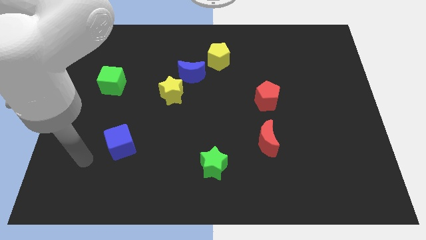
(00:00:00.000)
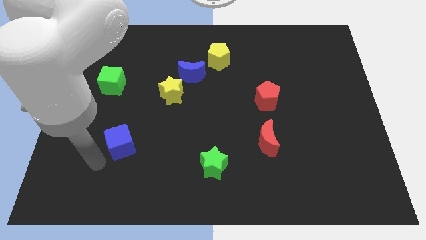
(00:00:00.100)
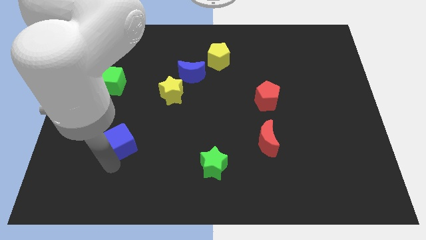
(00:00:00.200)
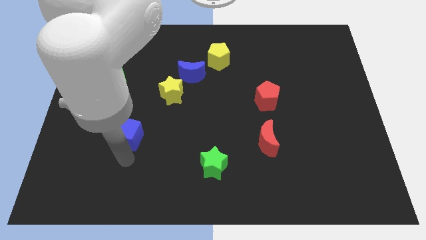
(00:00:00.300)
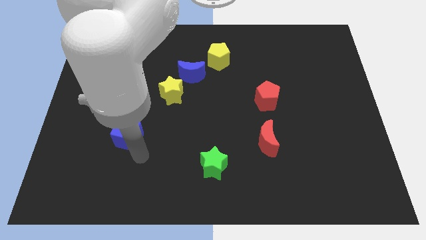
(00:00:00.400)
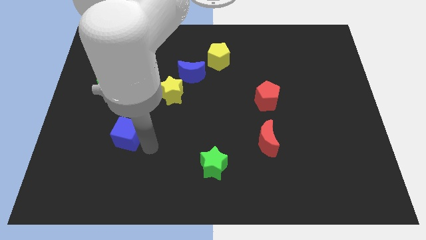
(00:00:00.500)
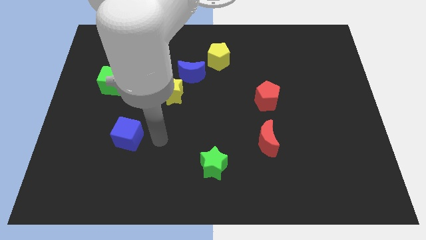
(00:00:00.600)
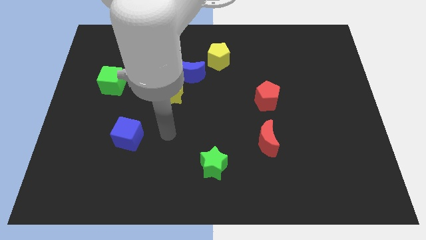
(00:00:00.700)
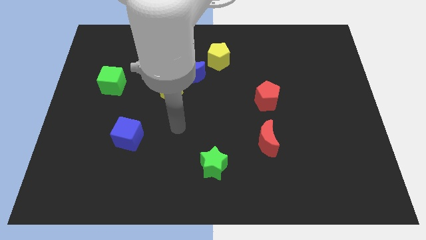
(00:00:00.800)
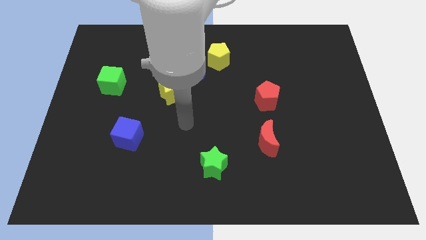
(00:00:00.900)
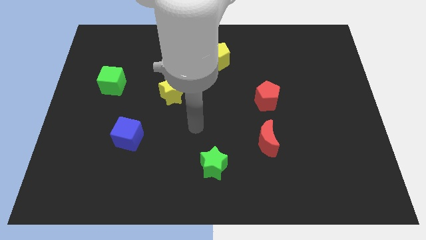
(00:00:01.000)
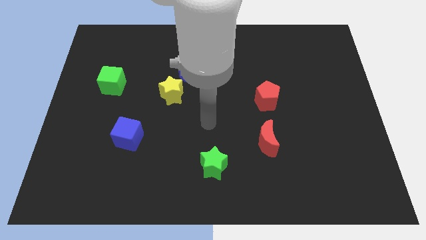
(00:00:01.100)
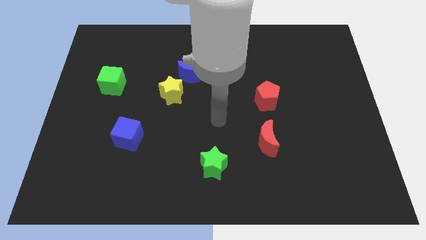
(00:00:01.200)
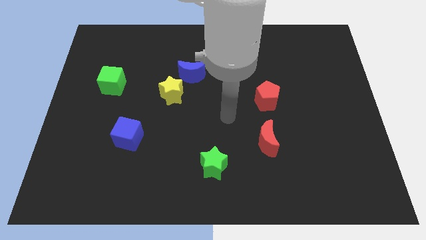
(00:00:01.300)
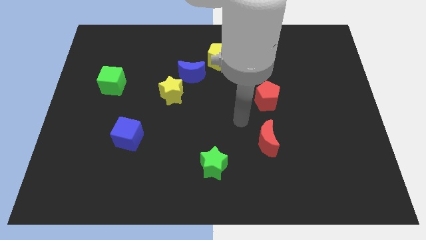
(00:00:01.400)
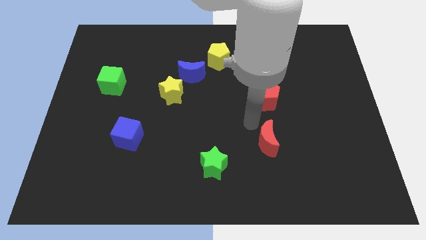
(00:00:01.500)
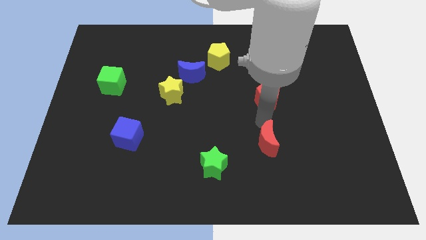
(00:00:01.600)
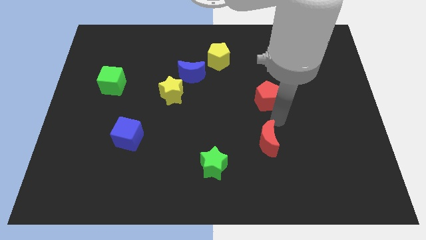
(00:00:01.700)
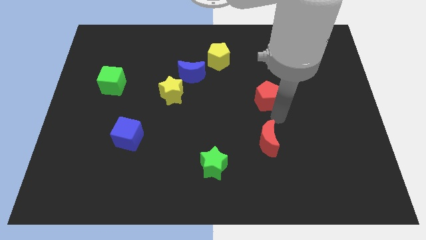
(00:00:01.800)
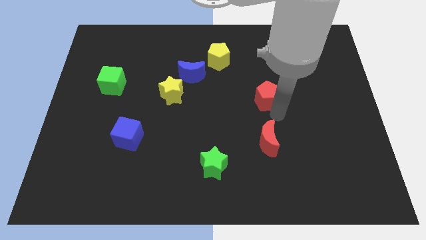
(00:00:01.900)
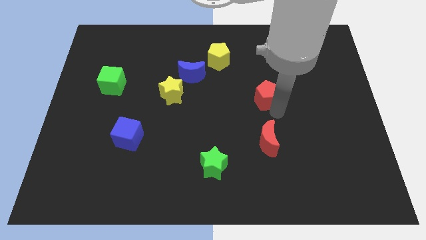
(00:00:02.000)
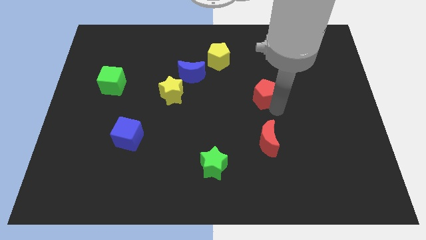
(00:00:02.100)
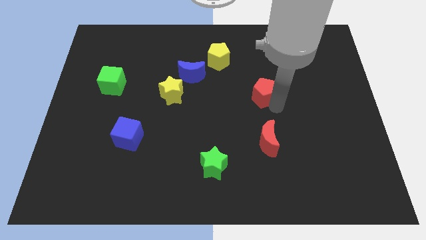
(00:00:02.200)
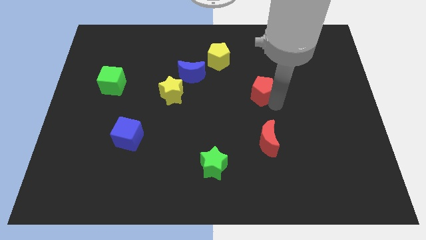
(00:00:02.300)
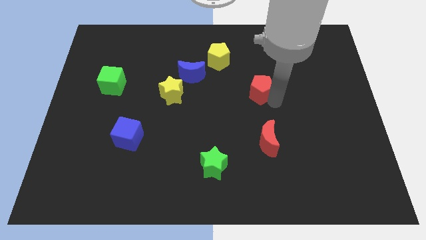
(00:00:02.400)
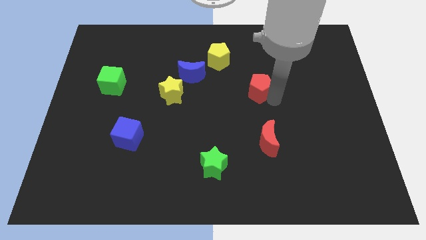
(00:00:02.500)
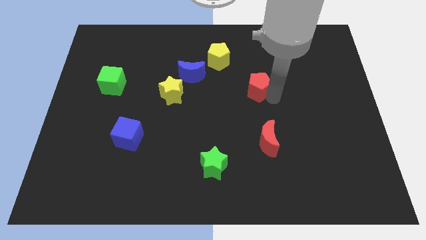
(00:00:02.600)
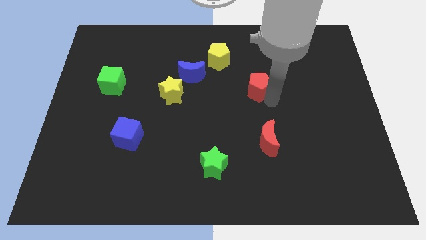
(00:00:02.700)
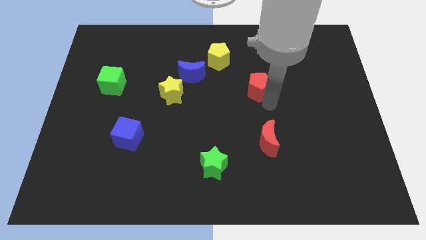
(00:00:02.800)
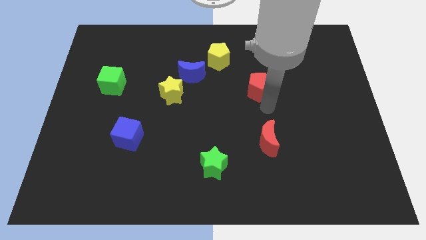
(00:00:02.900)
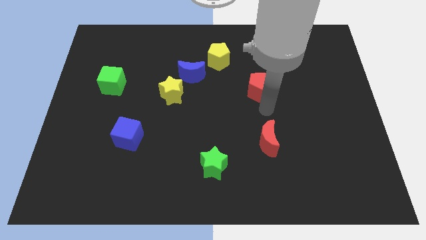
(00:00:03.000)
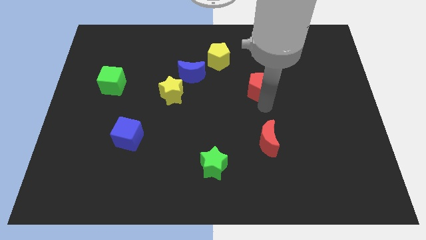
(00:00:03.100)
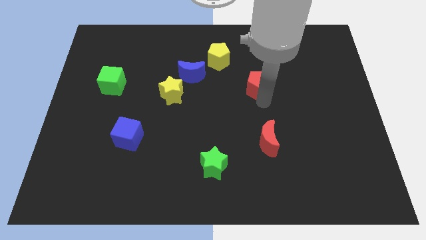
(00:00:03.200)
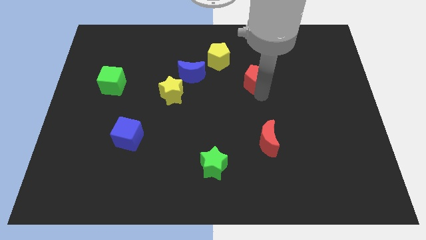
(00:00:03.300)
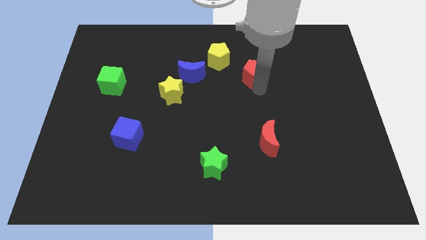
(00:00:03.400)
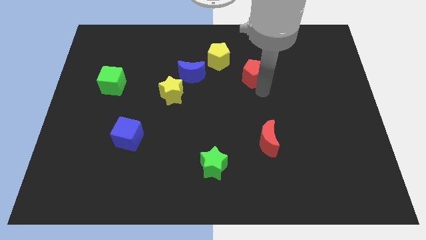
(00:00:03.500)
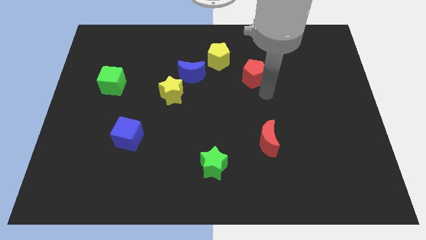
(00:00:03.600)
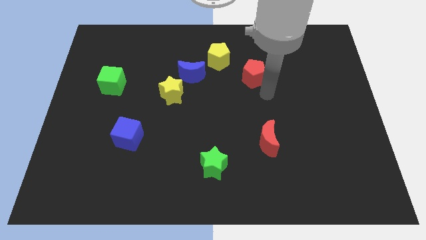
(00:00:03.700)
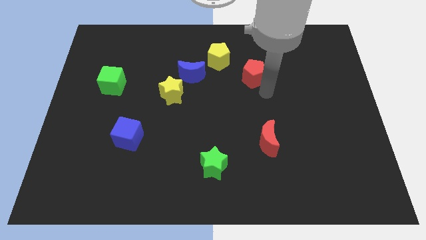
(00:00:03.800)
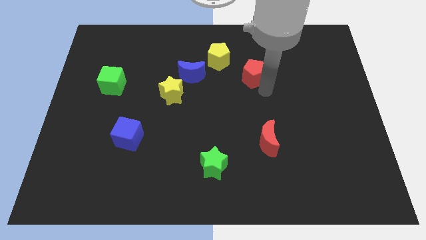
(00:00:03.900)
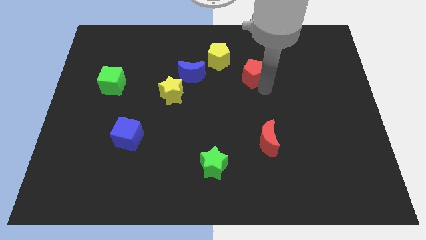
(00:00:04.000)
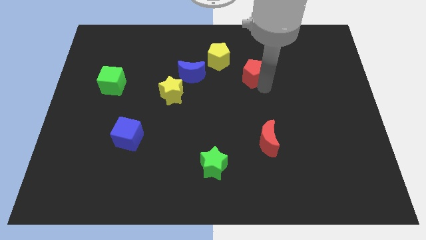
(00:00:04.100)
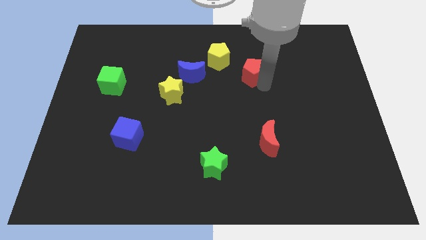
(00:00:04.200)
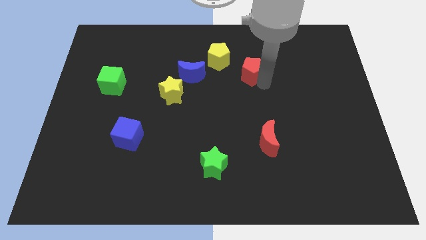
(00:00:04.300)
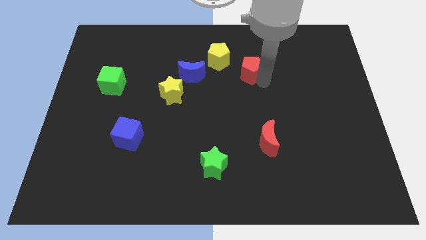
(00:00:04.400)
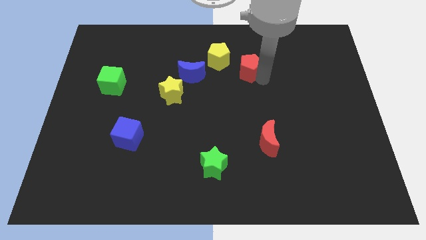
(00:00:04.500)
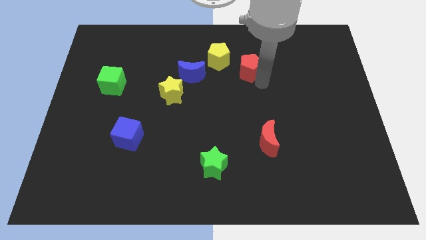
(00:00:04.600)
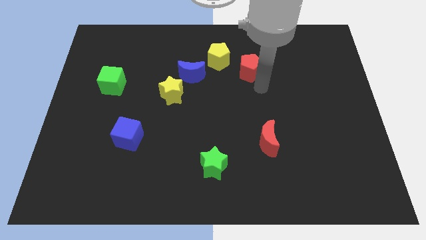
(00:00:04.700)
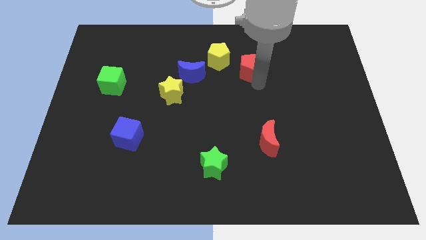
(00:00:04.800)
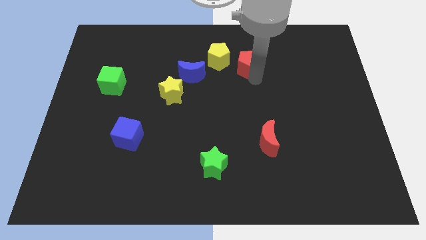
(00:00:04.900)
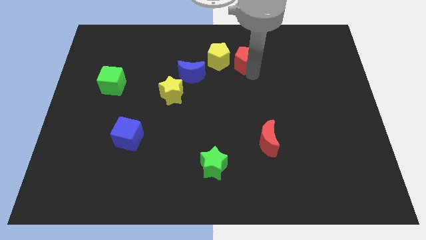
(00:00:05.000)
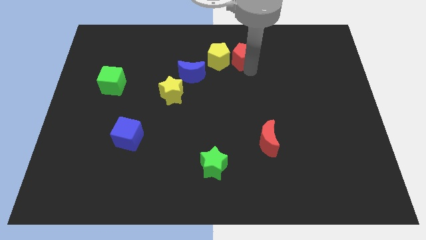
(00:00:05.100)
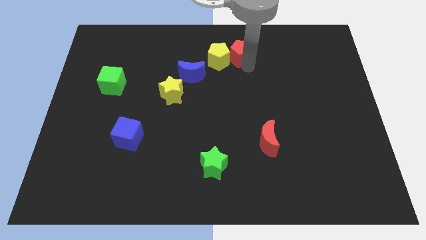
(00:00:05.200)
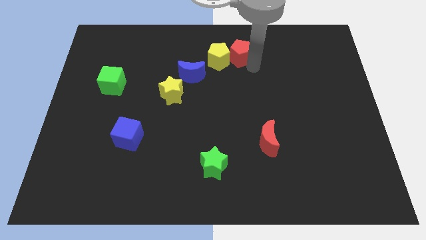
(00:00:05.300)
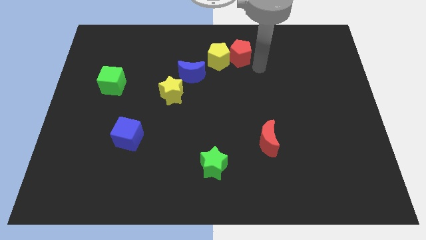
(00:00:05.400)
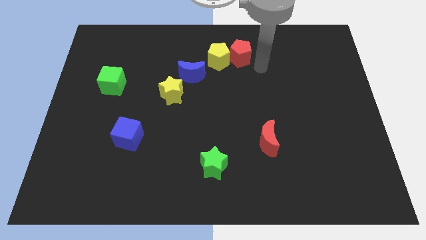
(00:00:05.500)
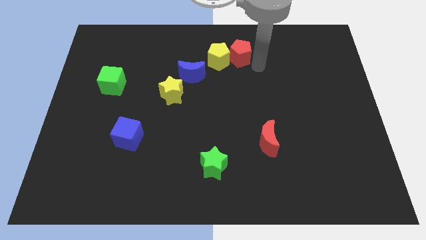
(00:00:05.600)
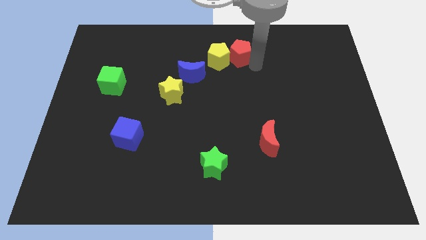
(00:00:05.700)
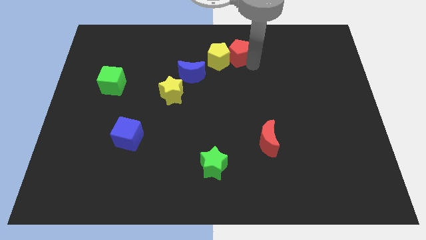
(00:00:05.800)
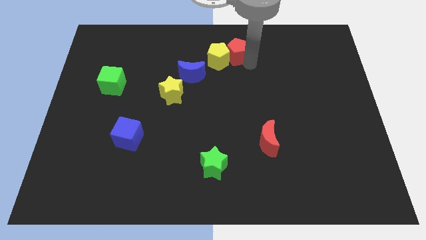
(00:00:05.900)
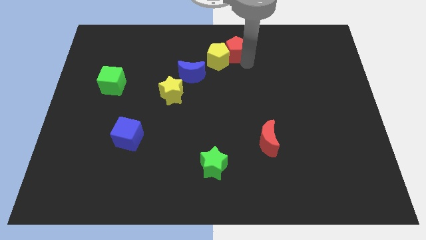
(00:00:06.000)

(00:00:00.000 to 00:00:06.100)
slide the red pentagon to the towards your base

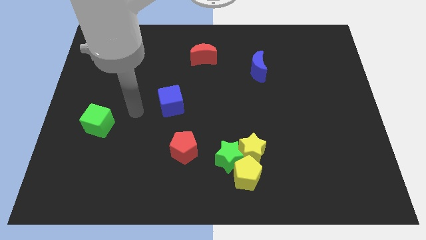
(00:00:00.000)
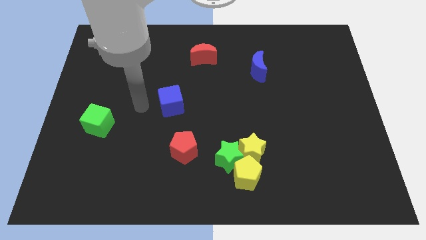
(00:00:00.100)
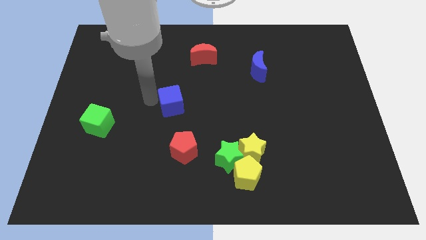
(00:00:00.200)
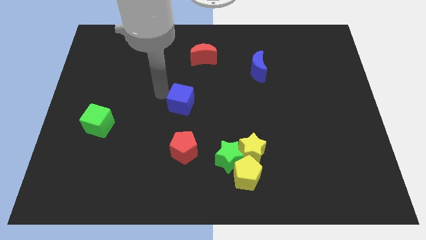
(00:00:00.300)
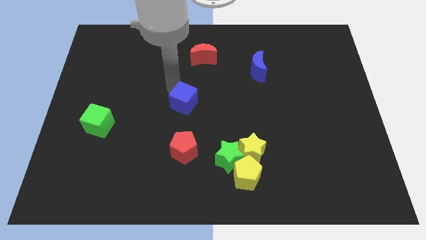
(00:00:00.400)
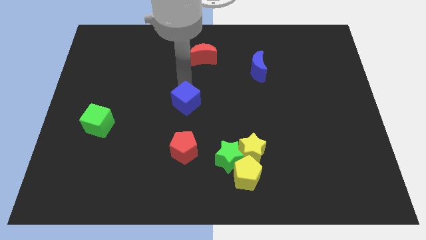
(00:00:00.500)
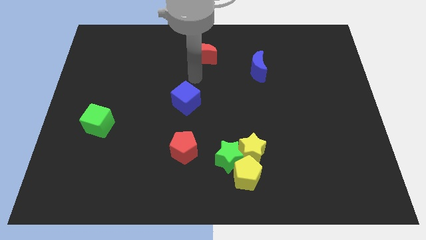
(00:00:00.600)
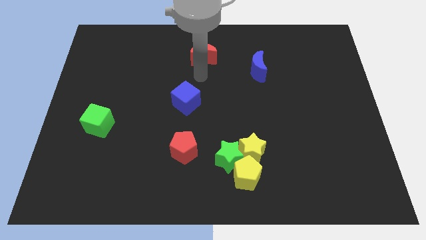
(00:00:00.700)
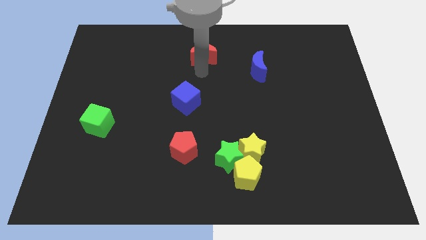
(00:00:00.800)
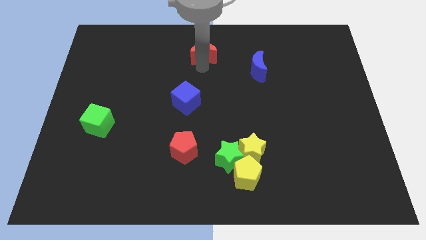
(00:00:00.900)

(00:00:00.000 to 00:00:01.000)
push the red moon to the top

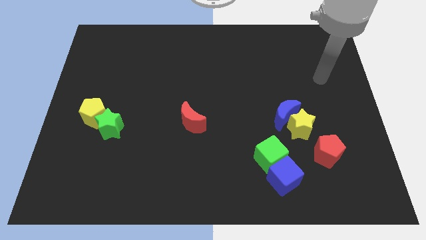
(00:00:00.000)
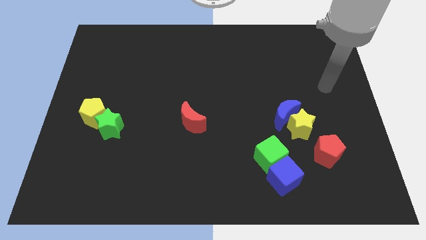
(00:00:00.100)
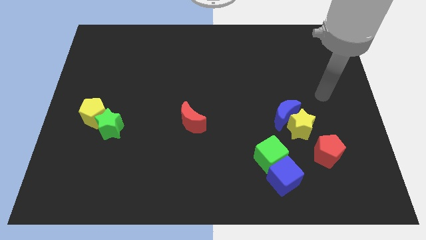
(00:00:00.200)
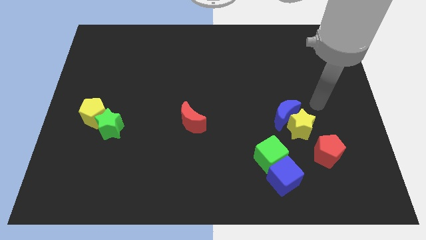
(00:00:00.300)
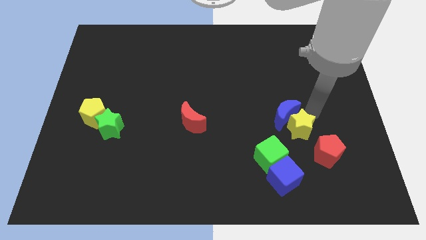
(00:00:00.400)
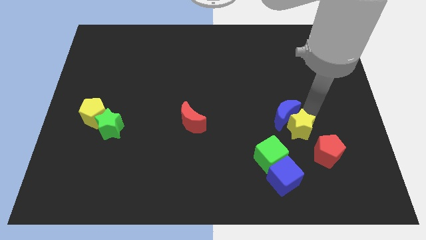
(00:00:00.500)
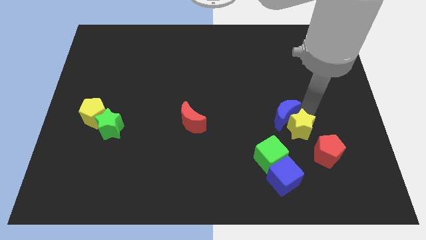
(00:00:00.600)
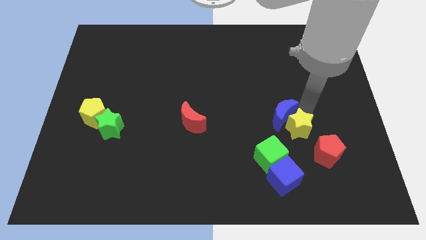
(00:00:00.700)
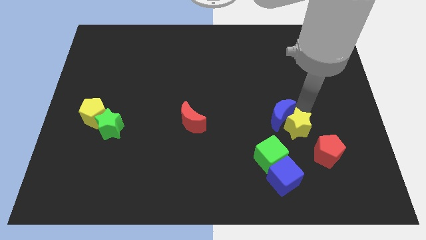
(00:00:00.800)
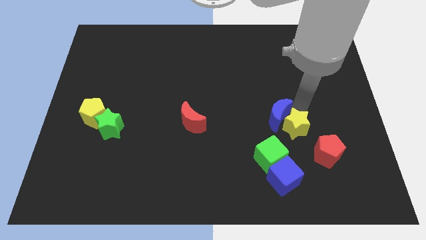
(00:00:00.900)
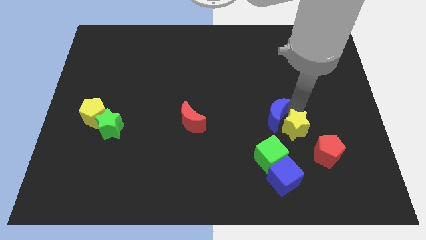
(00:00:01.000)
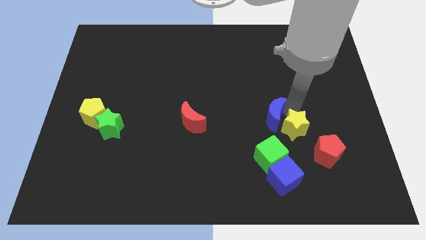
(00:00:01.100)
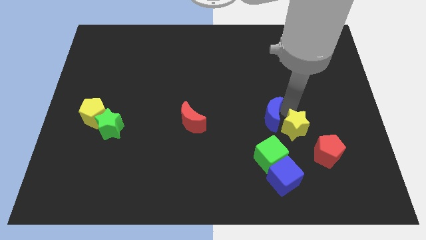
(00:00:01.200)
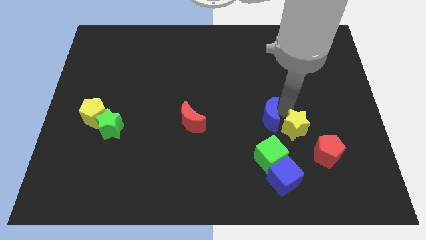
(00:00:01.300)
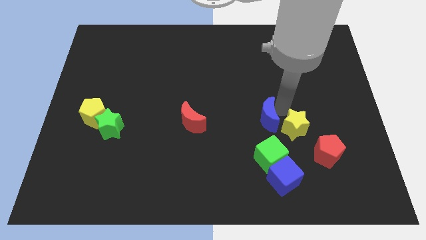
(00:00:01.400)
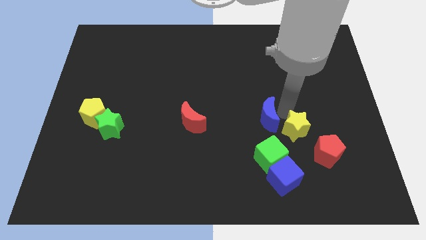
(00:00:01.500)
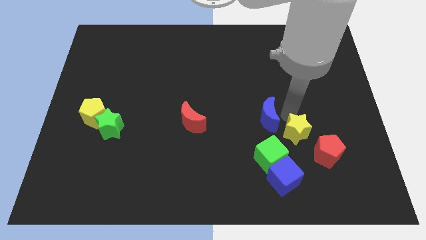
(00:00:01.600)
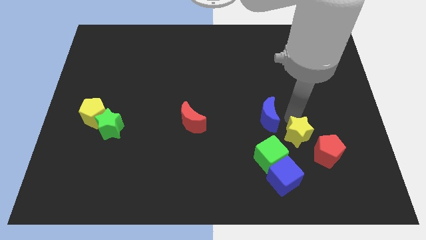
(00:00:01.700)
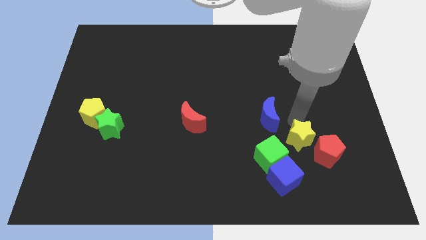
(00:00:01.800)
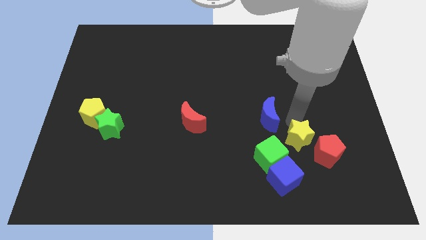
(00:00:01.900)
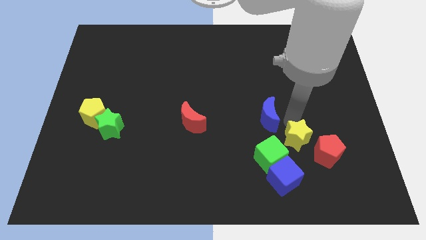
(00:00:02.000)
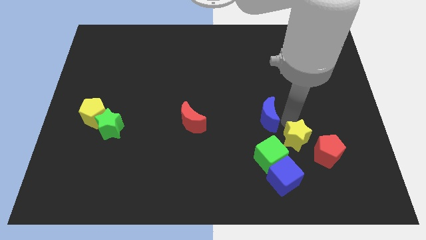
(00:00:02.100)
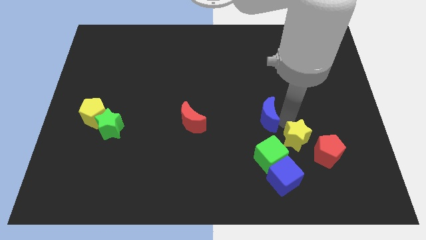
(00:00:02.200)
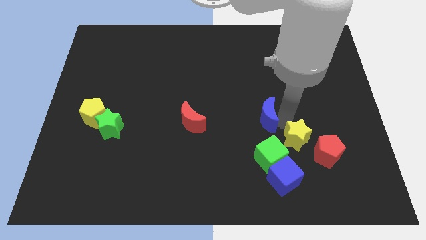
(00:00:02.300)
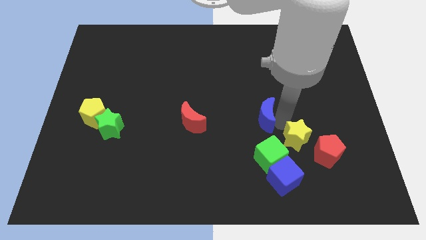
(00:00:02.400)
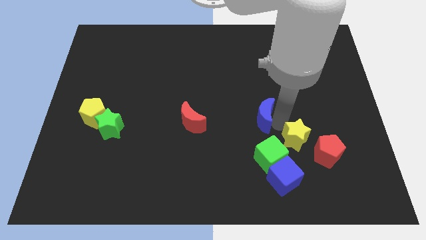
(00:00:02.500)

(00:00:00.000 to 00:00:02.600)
push the blue moon to the center
